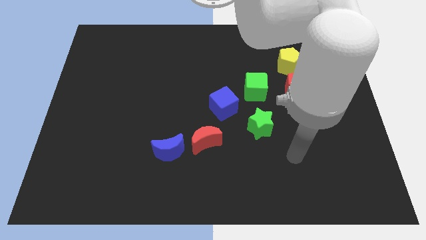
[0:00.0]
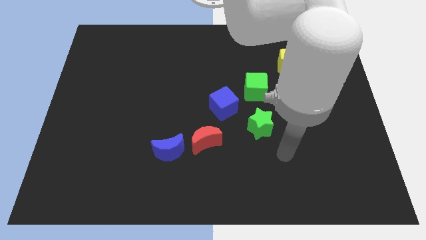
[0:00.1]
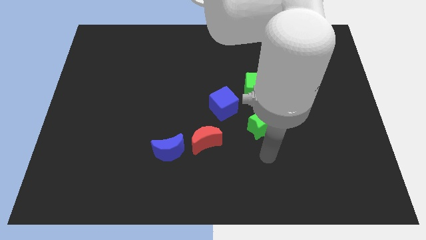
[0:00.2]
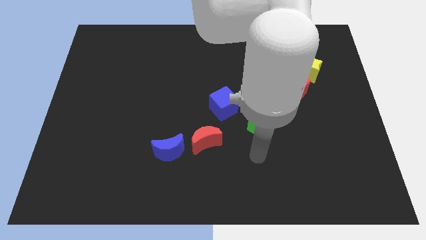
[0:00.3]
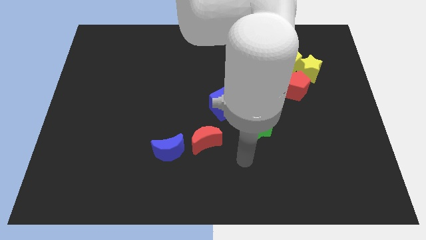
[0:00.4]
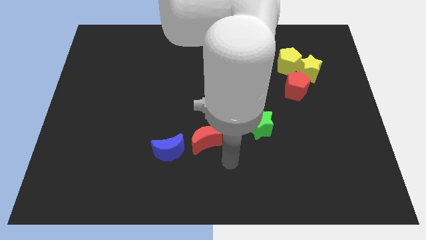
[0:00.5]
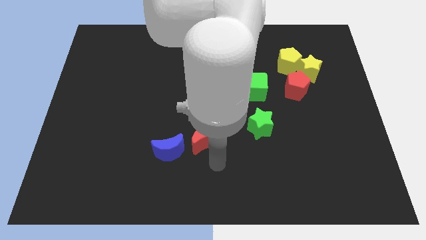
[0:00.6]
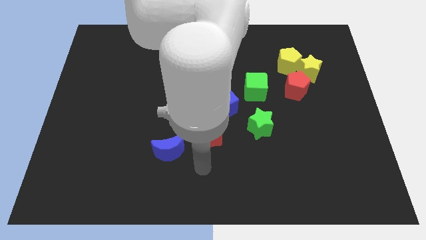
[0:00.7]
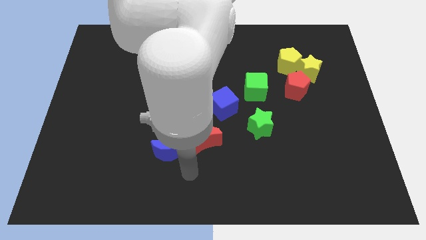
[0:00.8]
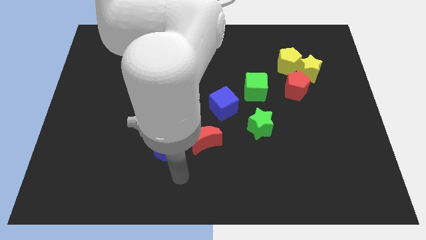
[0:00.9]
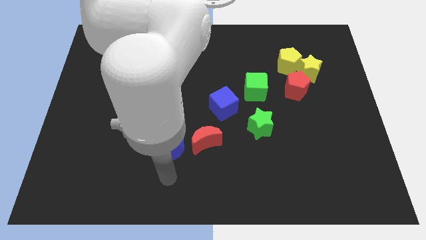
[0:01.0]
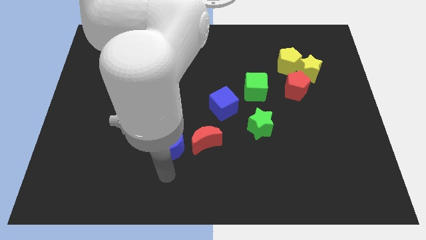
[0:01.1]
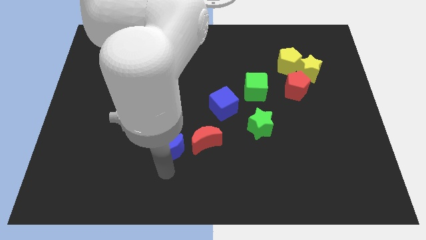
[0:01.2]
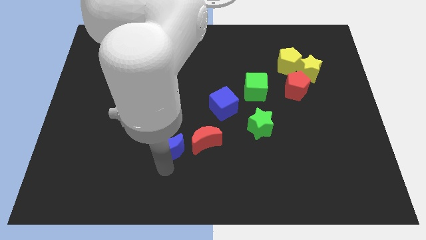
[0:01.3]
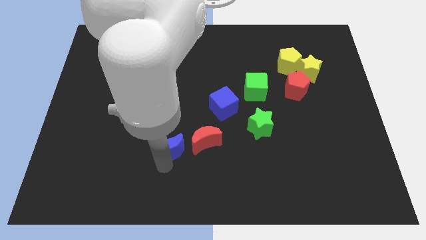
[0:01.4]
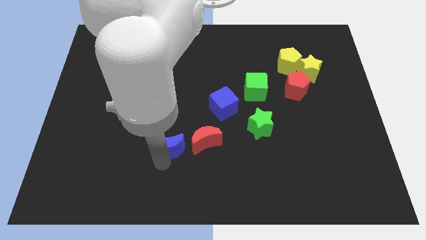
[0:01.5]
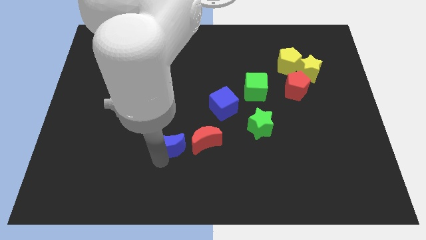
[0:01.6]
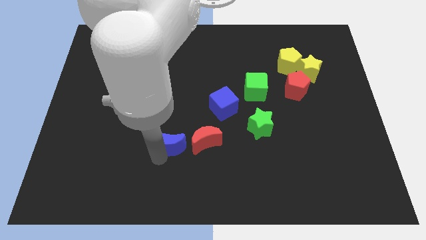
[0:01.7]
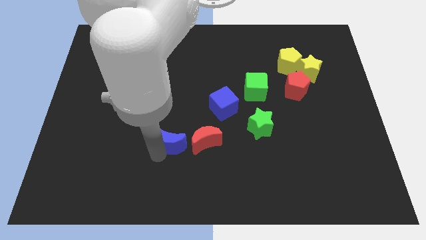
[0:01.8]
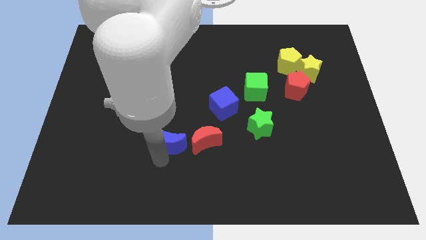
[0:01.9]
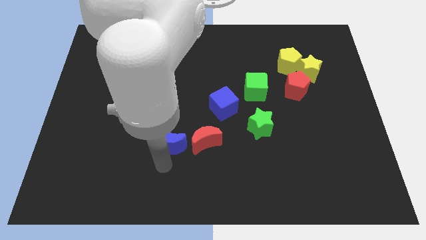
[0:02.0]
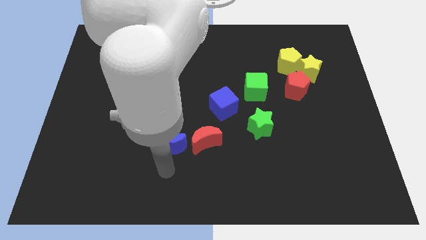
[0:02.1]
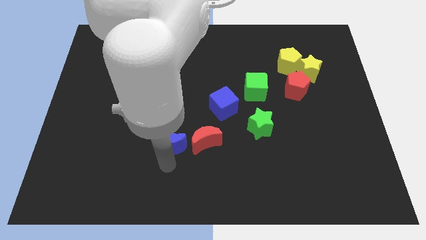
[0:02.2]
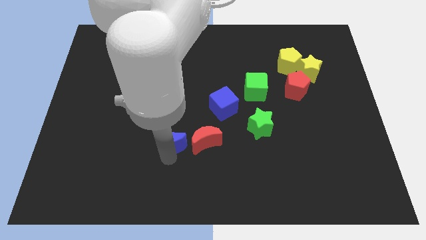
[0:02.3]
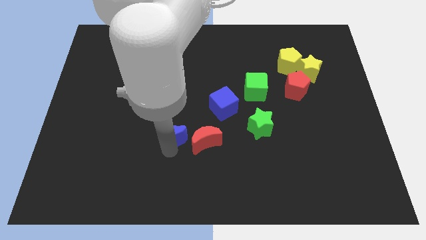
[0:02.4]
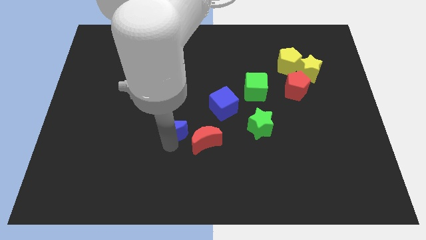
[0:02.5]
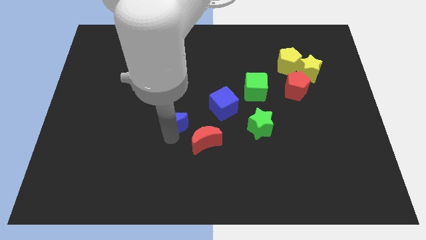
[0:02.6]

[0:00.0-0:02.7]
move the blue moon upwards somewhat

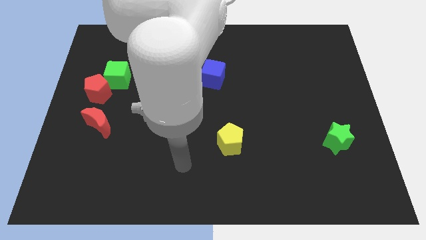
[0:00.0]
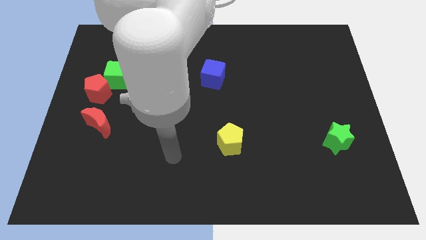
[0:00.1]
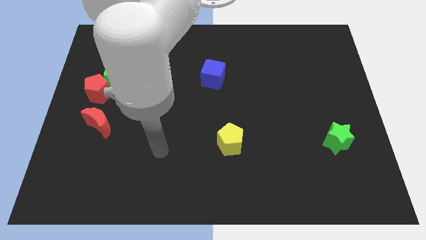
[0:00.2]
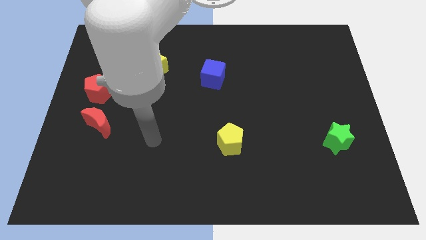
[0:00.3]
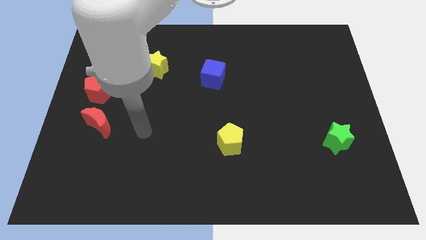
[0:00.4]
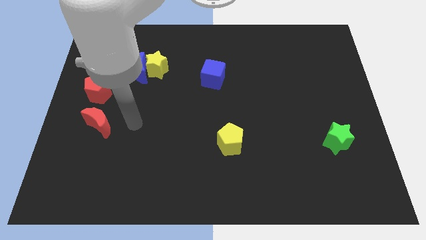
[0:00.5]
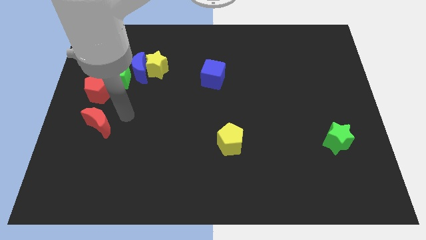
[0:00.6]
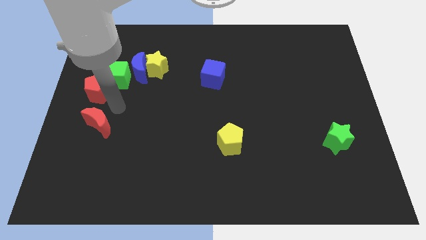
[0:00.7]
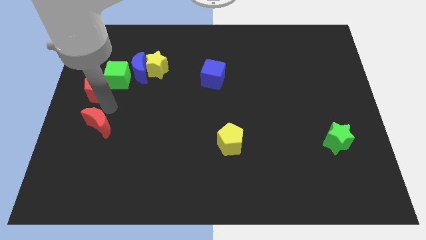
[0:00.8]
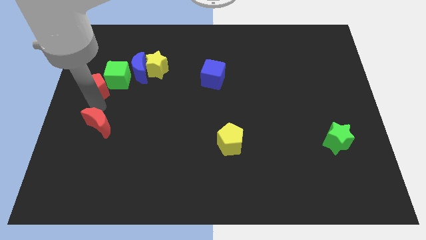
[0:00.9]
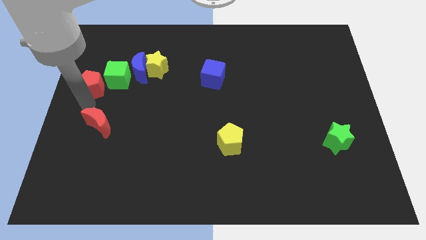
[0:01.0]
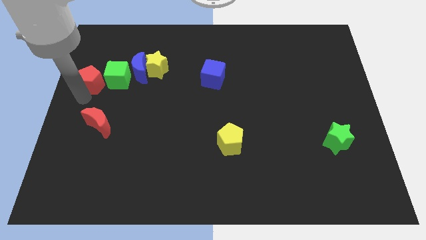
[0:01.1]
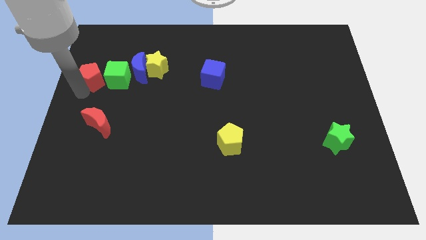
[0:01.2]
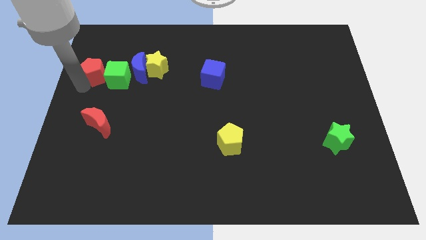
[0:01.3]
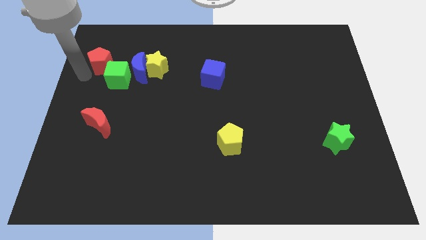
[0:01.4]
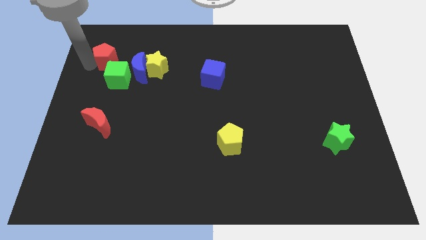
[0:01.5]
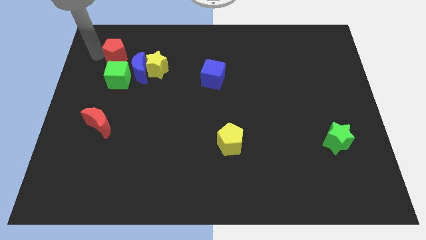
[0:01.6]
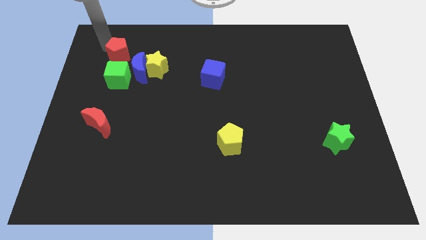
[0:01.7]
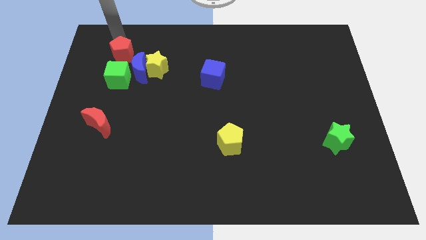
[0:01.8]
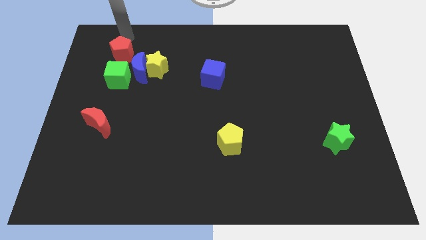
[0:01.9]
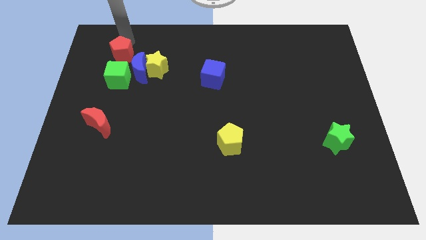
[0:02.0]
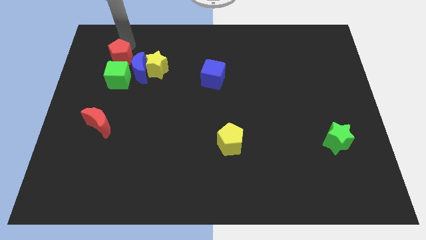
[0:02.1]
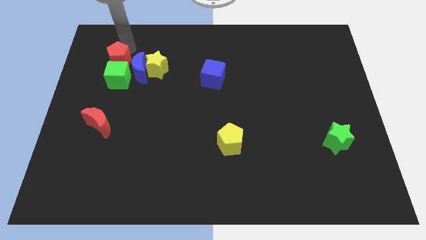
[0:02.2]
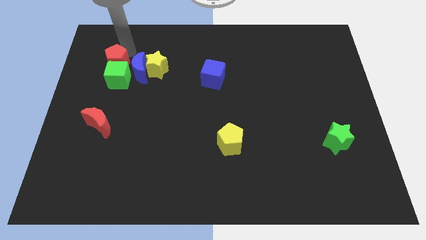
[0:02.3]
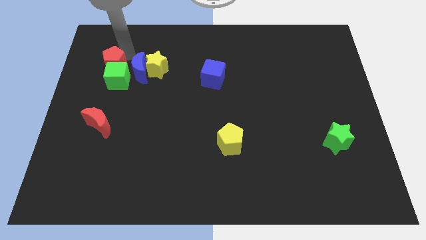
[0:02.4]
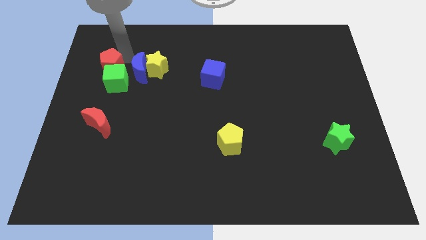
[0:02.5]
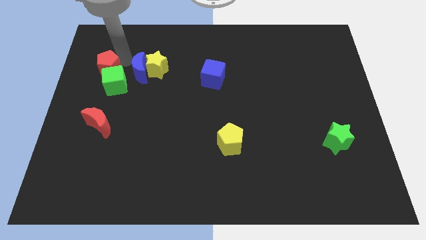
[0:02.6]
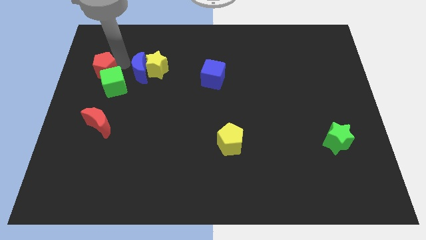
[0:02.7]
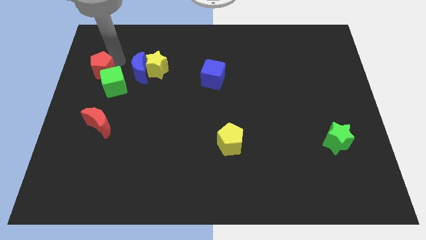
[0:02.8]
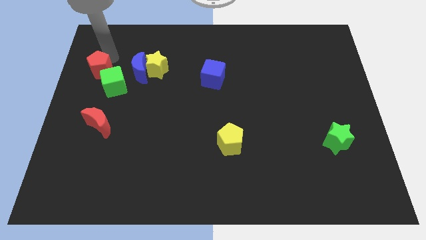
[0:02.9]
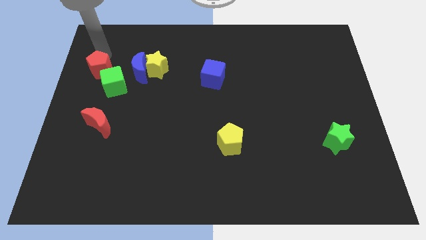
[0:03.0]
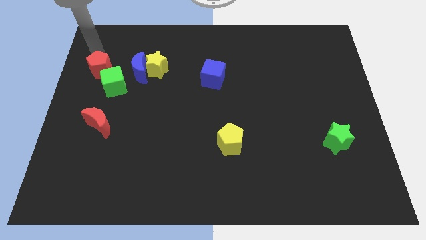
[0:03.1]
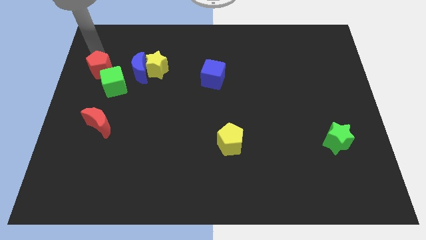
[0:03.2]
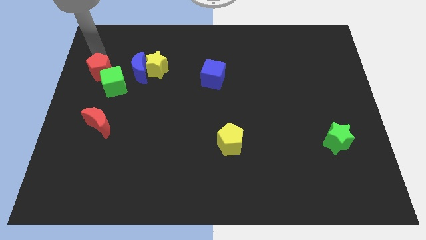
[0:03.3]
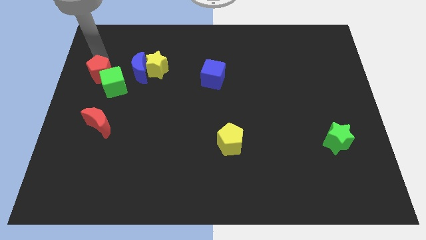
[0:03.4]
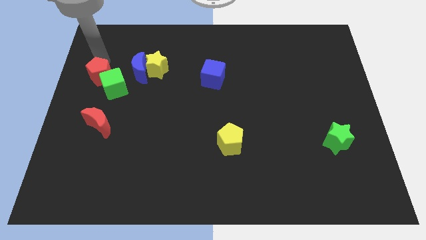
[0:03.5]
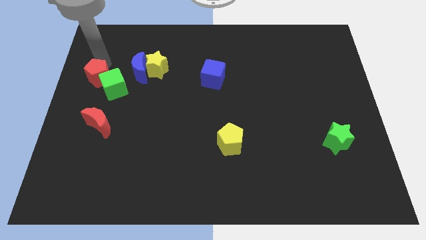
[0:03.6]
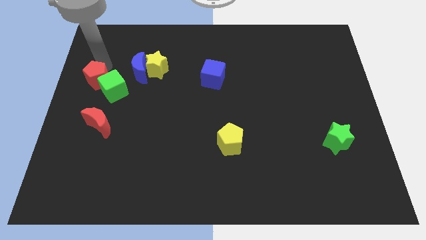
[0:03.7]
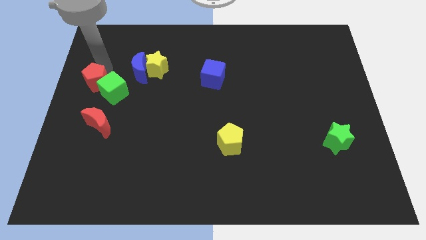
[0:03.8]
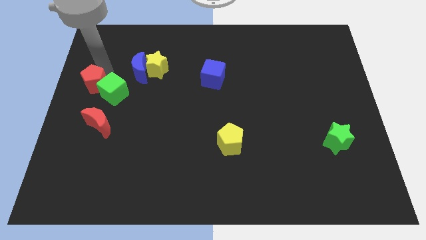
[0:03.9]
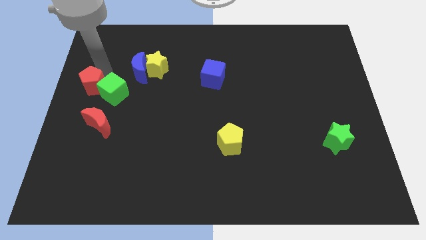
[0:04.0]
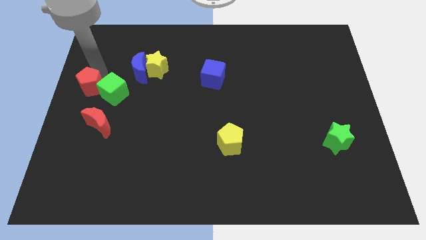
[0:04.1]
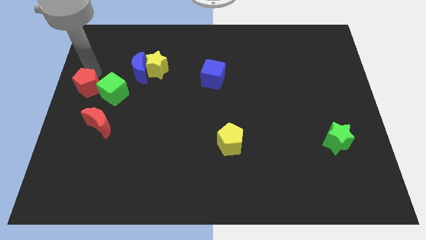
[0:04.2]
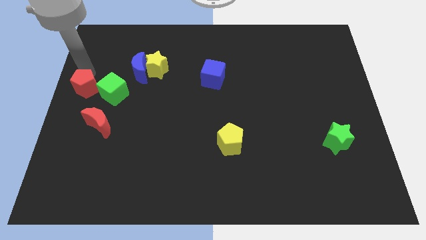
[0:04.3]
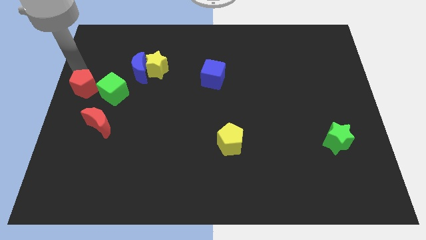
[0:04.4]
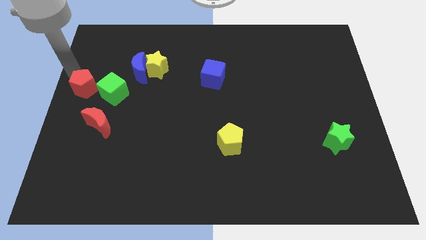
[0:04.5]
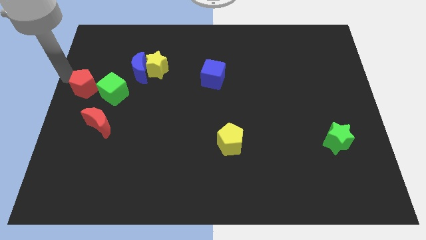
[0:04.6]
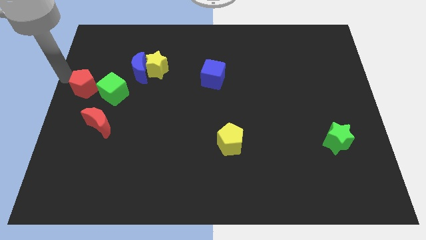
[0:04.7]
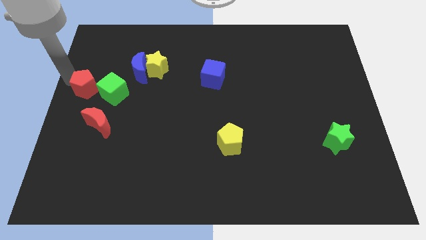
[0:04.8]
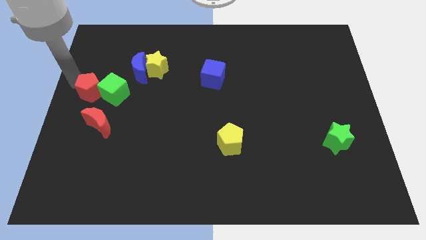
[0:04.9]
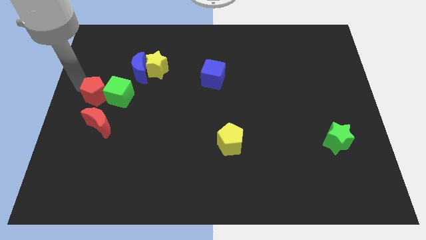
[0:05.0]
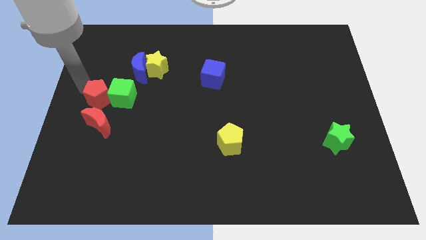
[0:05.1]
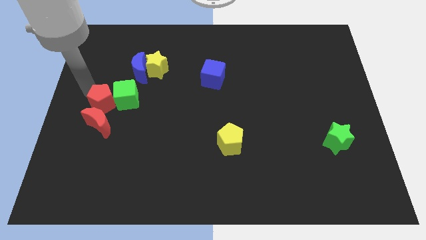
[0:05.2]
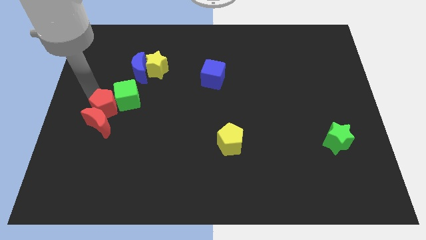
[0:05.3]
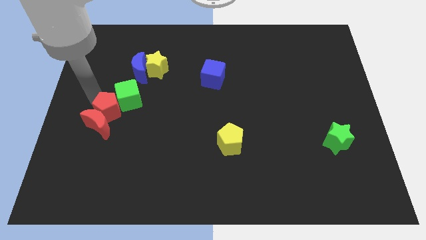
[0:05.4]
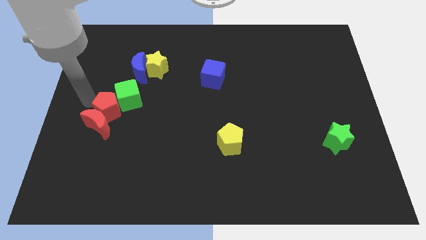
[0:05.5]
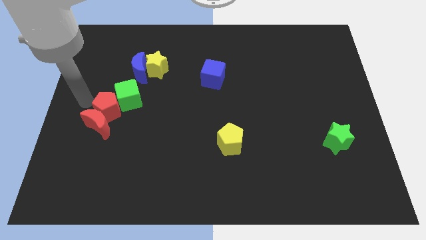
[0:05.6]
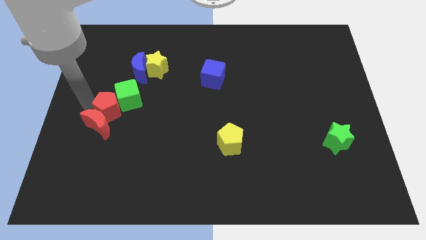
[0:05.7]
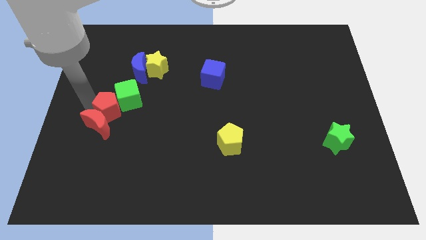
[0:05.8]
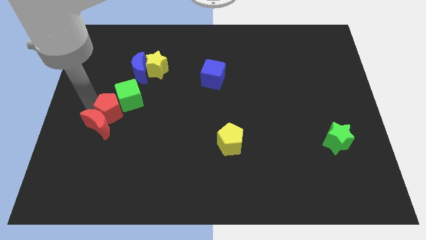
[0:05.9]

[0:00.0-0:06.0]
slide the red pentagon a little bit downwards and to the right diagonally
